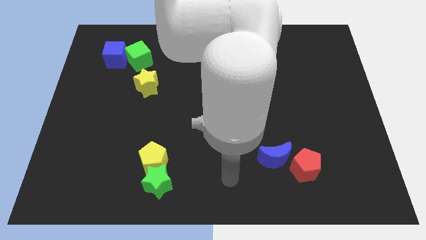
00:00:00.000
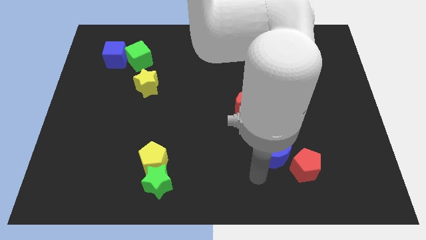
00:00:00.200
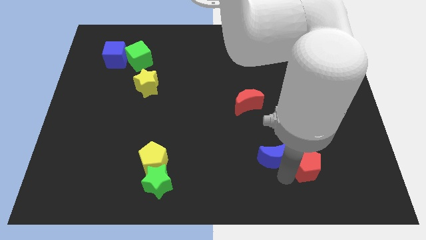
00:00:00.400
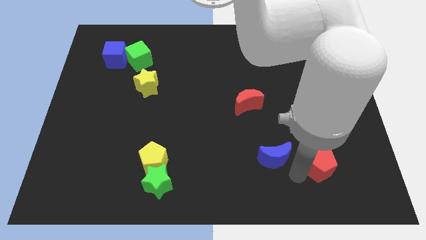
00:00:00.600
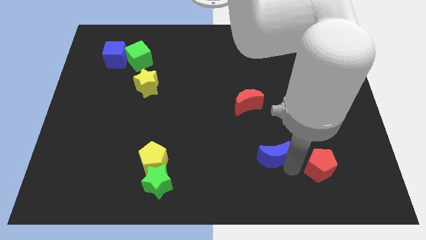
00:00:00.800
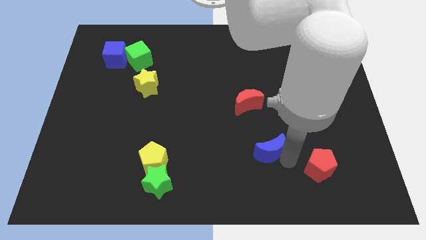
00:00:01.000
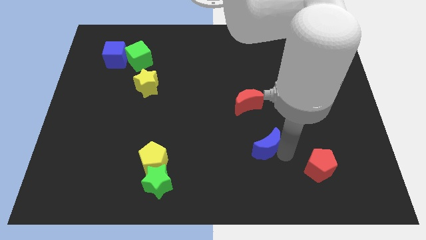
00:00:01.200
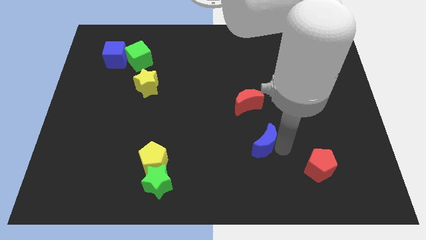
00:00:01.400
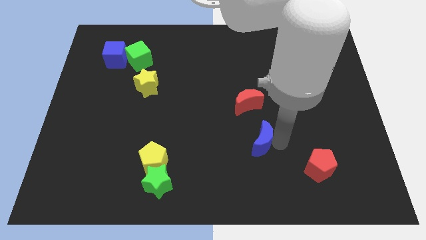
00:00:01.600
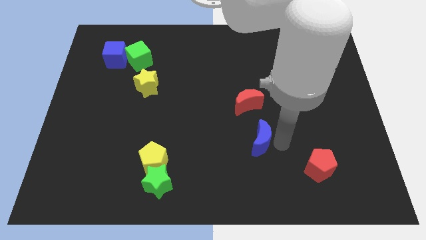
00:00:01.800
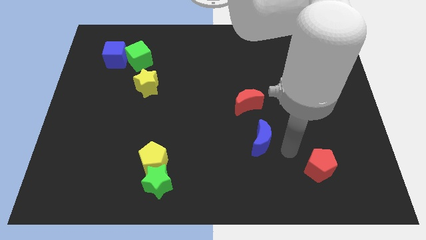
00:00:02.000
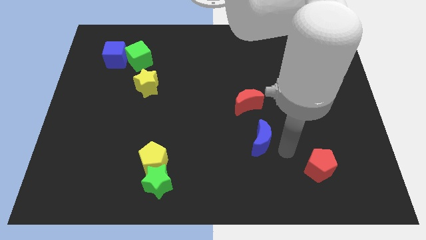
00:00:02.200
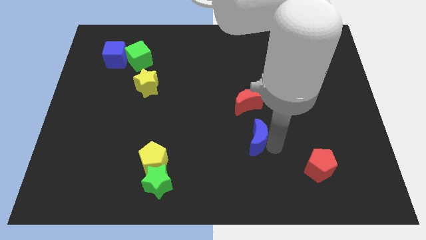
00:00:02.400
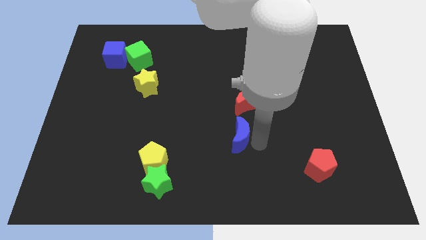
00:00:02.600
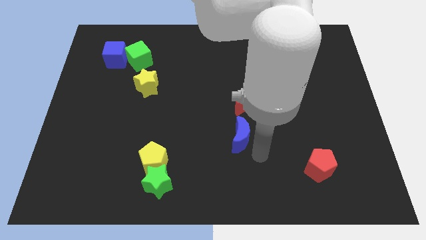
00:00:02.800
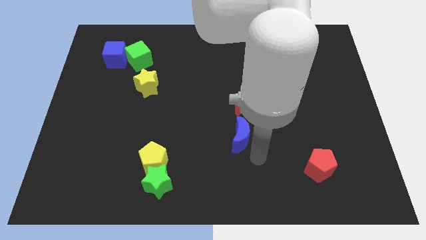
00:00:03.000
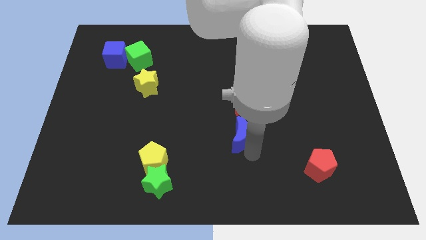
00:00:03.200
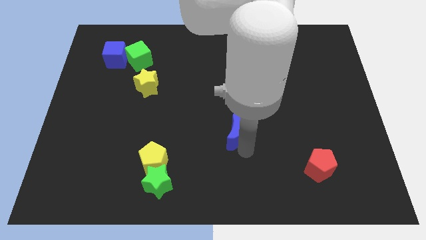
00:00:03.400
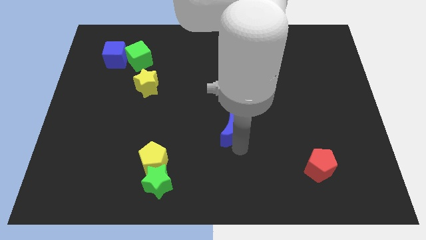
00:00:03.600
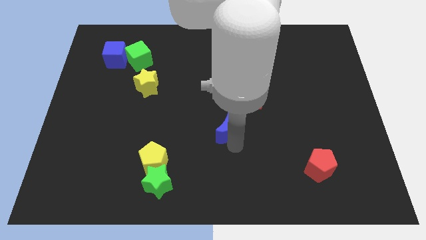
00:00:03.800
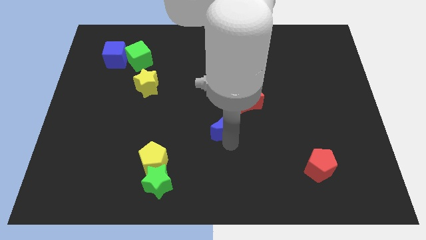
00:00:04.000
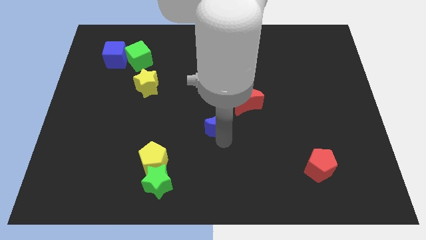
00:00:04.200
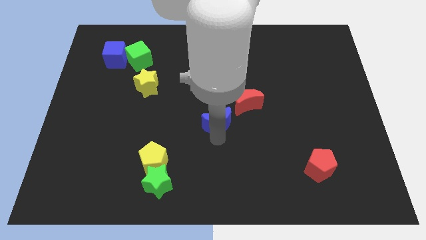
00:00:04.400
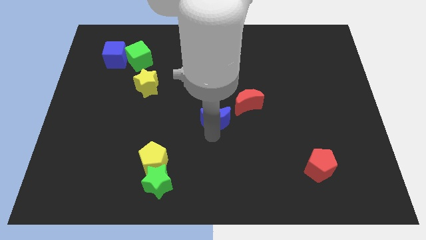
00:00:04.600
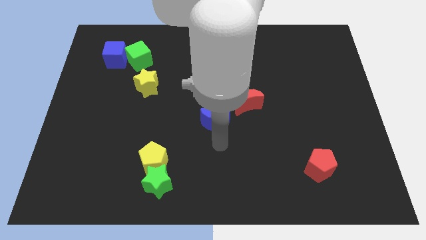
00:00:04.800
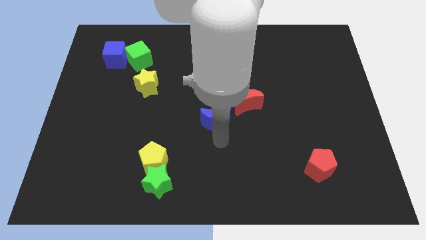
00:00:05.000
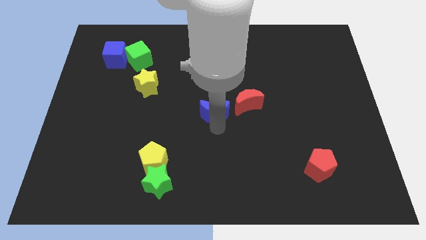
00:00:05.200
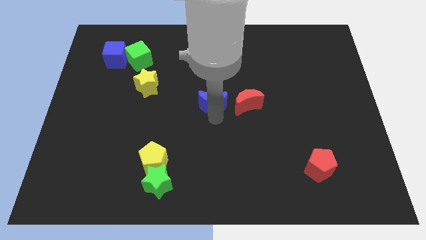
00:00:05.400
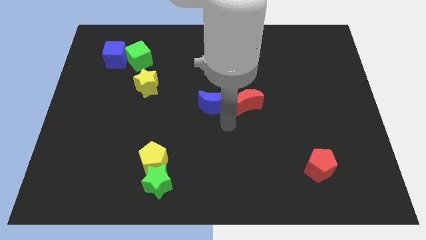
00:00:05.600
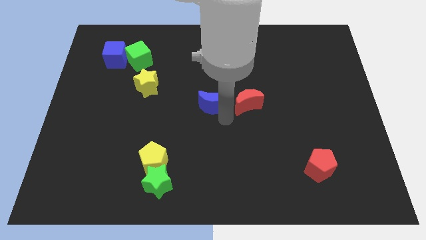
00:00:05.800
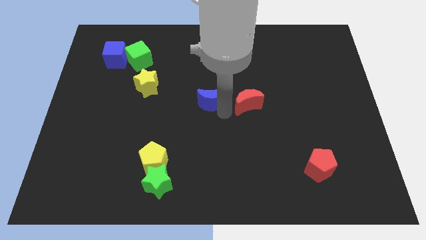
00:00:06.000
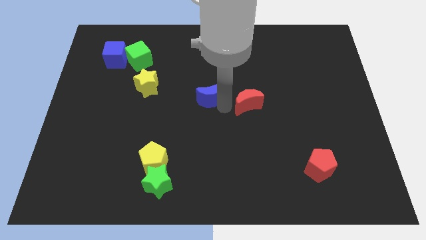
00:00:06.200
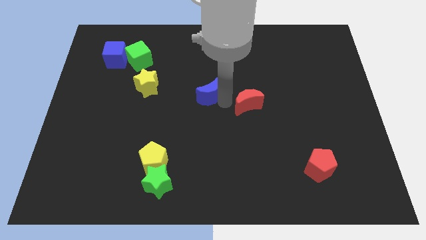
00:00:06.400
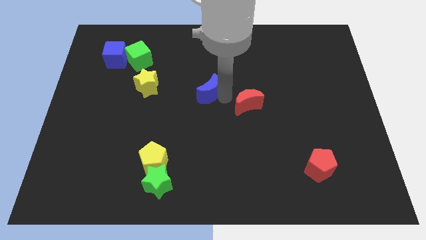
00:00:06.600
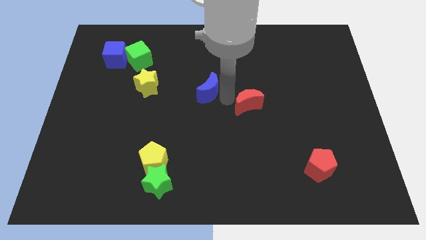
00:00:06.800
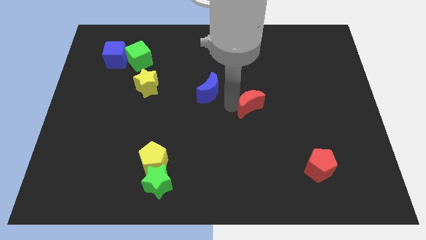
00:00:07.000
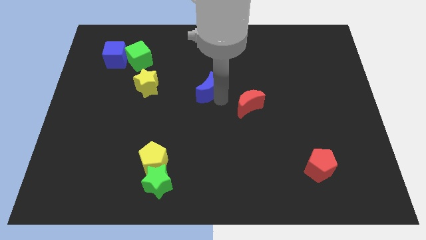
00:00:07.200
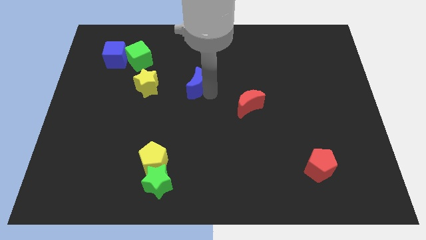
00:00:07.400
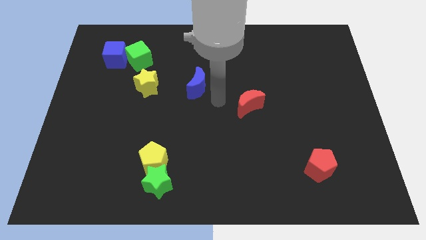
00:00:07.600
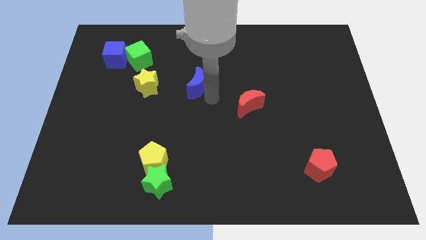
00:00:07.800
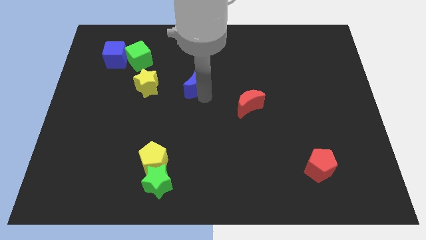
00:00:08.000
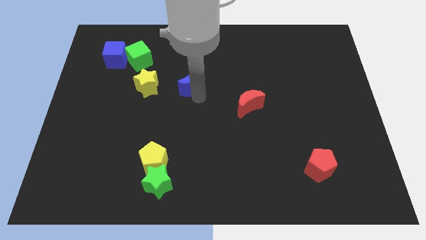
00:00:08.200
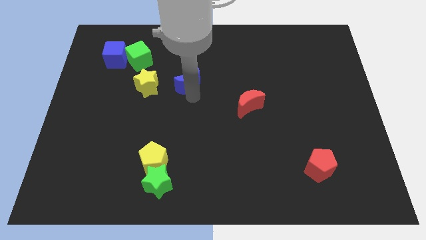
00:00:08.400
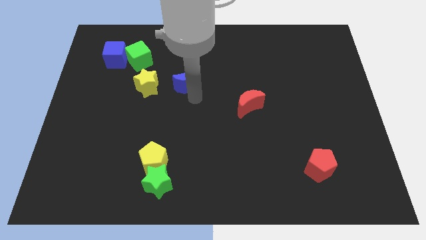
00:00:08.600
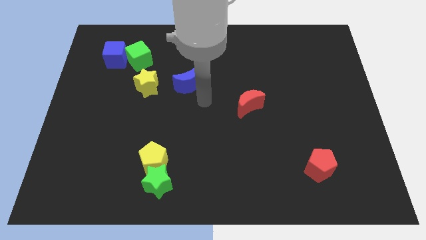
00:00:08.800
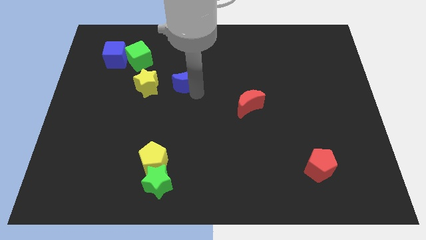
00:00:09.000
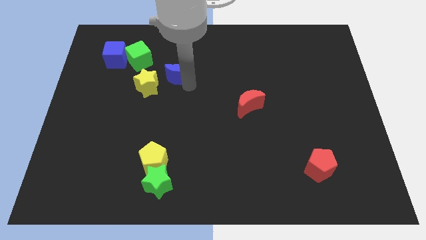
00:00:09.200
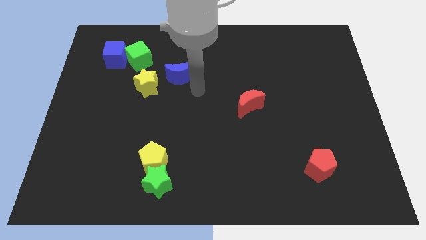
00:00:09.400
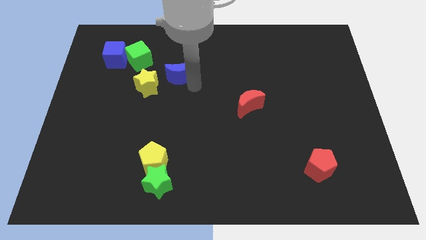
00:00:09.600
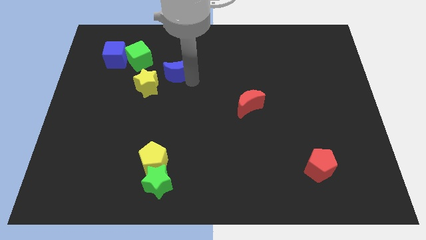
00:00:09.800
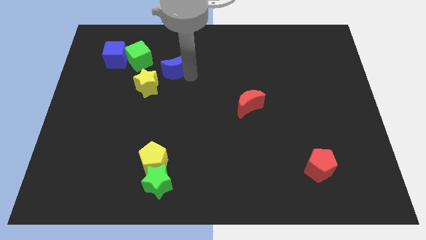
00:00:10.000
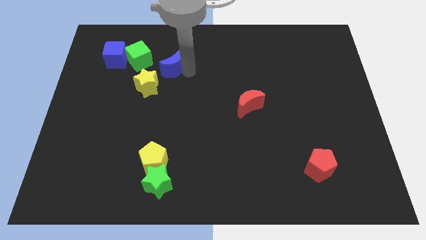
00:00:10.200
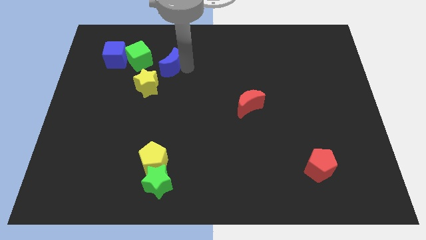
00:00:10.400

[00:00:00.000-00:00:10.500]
move the blue moon right of the blue cube

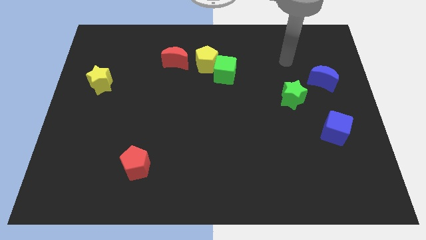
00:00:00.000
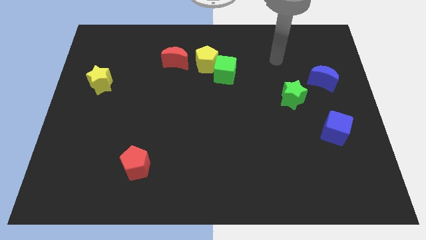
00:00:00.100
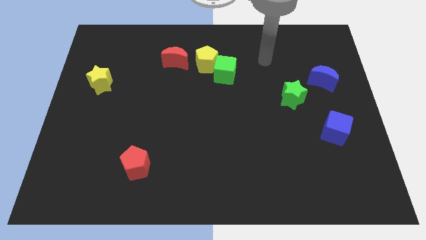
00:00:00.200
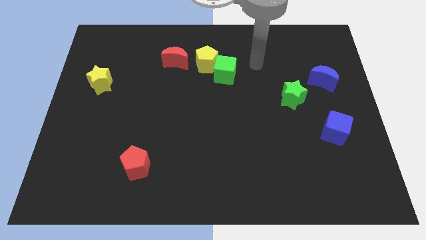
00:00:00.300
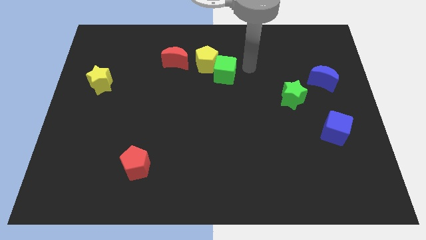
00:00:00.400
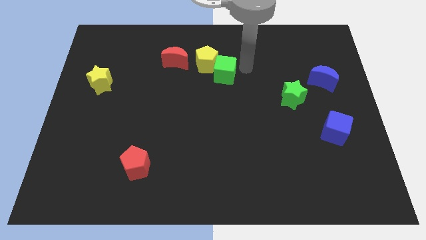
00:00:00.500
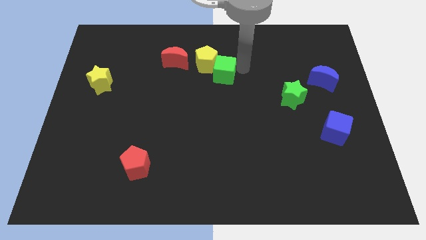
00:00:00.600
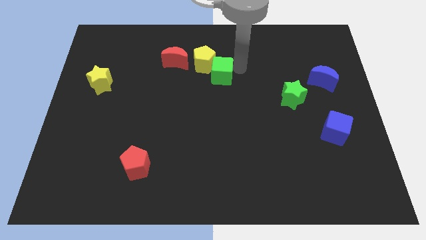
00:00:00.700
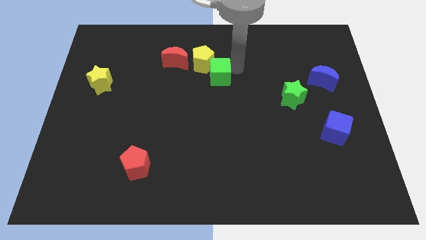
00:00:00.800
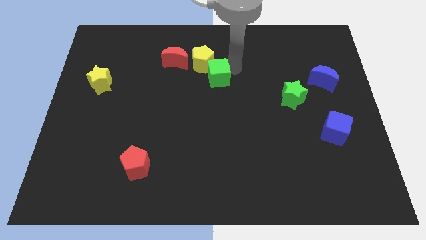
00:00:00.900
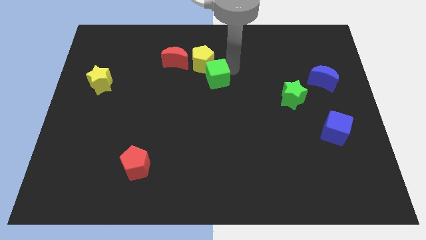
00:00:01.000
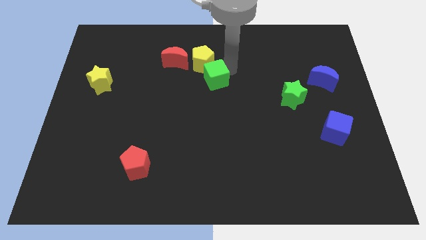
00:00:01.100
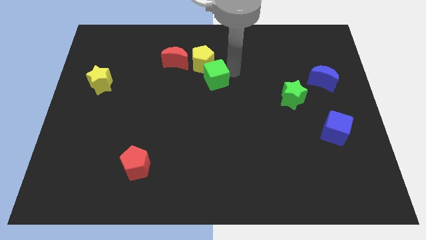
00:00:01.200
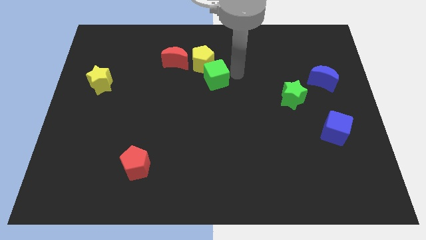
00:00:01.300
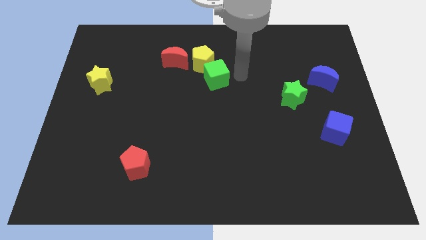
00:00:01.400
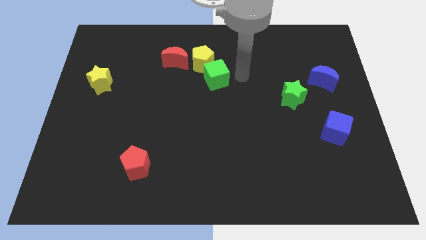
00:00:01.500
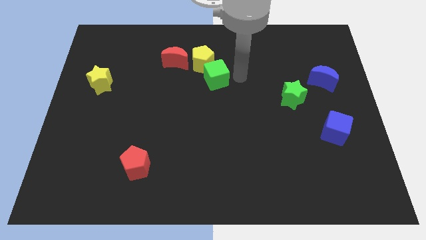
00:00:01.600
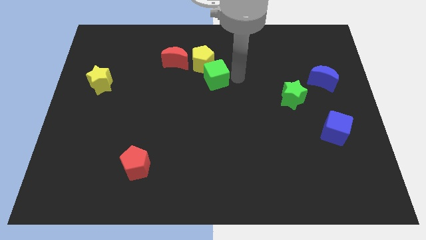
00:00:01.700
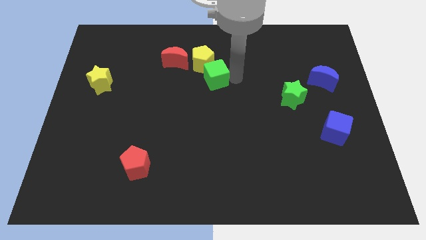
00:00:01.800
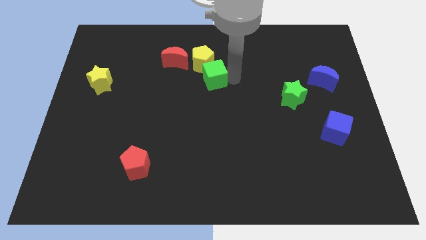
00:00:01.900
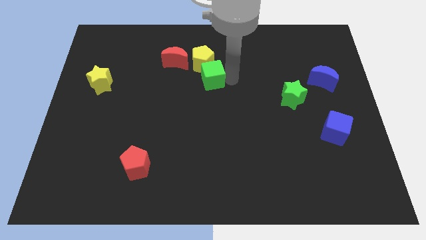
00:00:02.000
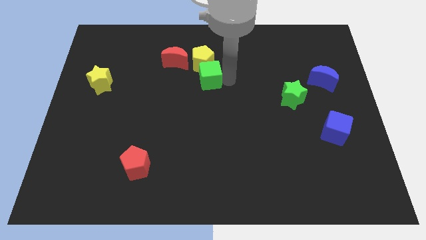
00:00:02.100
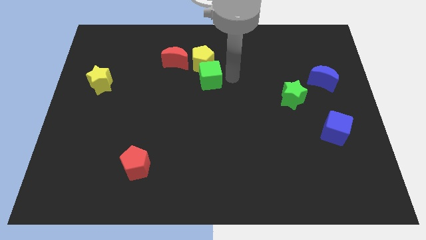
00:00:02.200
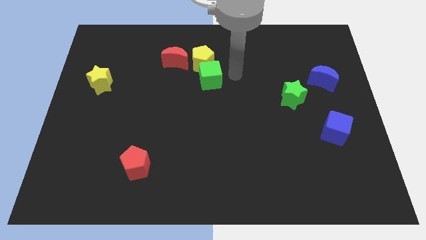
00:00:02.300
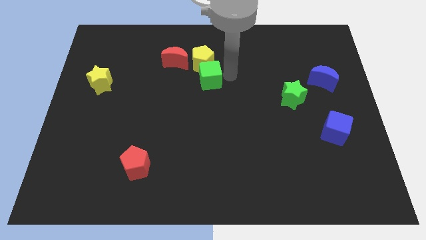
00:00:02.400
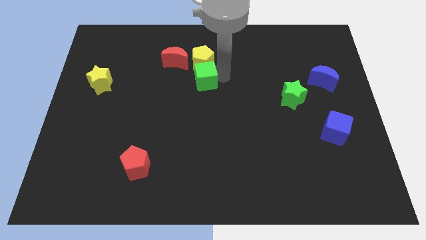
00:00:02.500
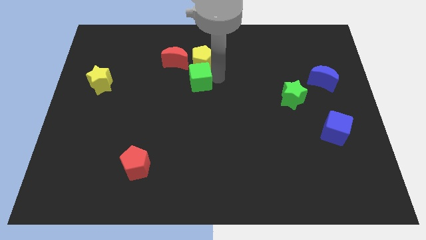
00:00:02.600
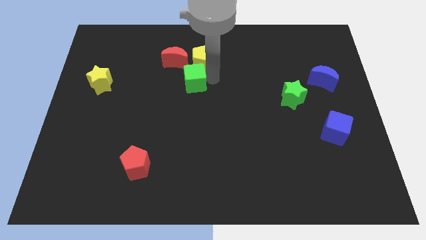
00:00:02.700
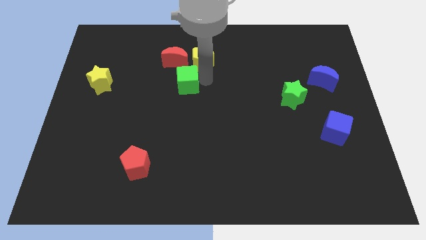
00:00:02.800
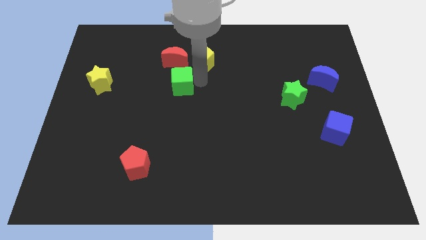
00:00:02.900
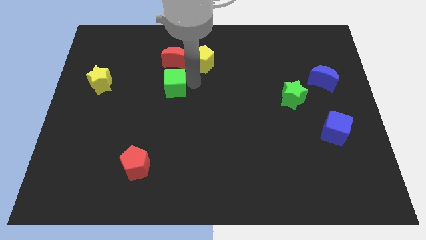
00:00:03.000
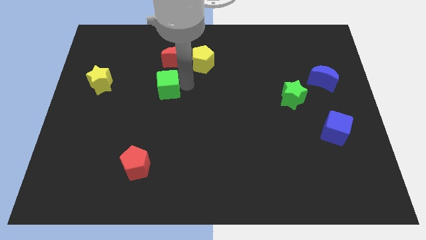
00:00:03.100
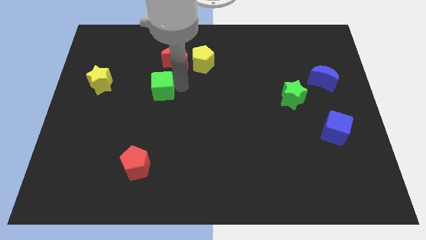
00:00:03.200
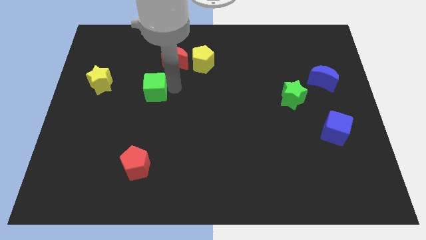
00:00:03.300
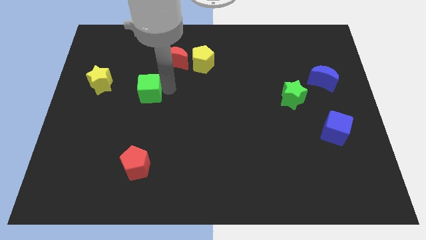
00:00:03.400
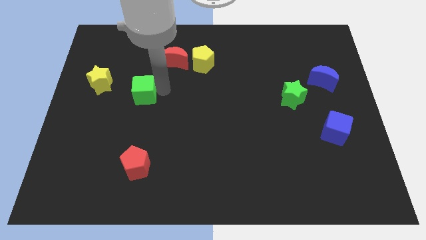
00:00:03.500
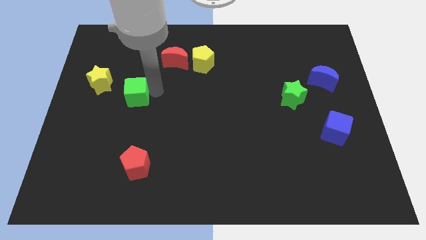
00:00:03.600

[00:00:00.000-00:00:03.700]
put the green cube diagonally down and to the right of the yellow star

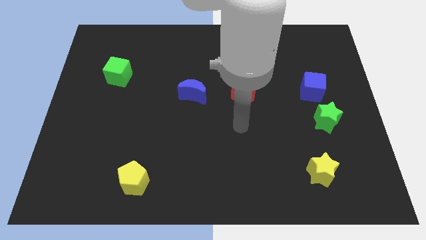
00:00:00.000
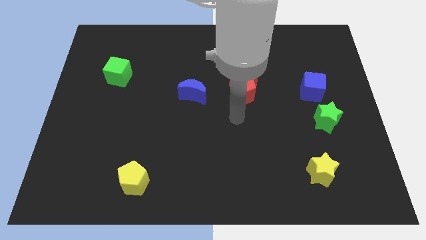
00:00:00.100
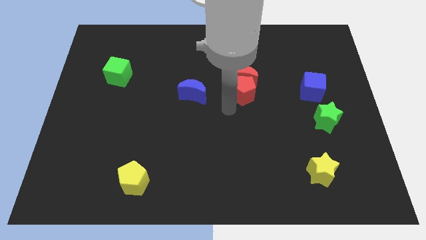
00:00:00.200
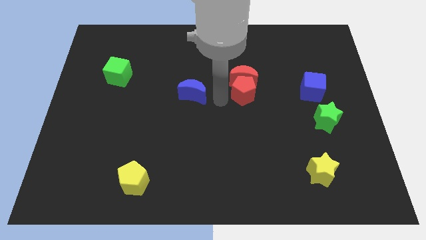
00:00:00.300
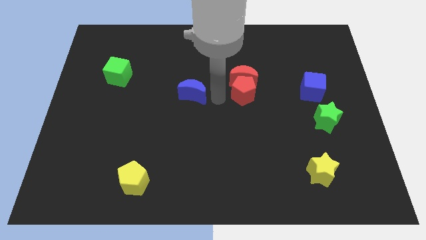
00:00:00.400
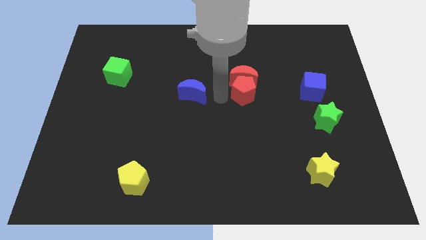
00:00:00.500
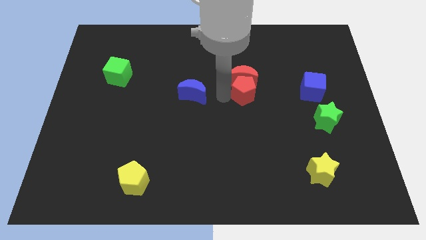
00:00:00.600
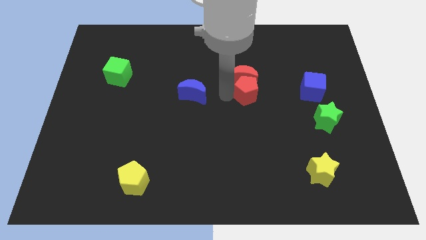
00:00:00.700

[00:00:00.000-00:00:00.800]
slide the red pentagon to the left side of the blue cube
